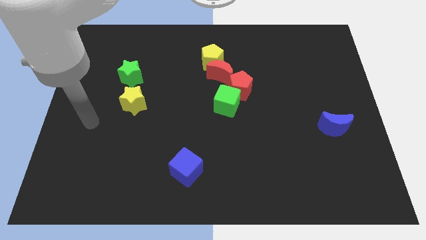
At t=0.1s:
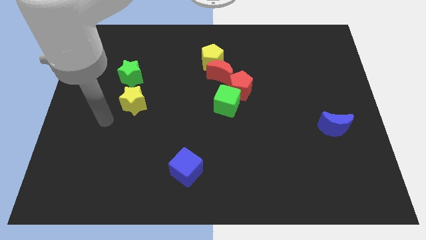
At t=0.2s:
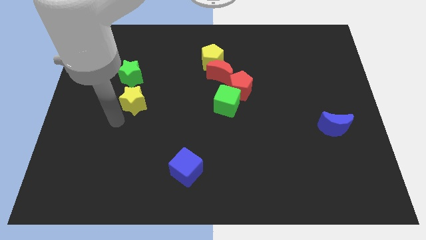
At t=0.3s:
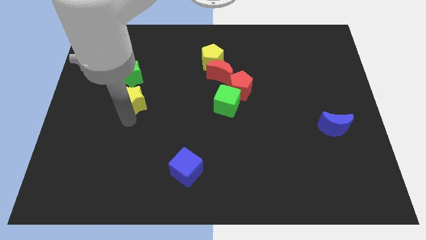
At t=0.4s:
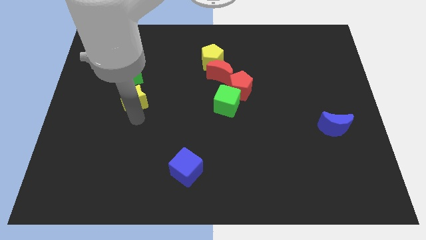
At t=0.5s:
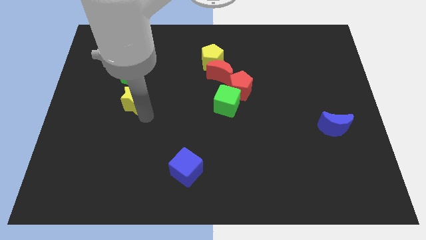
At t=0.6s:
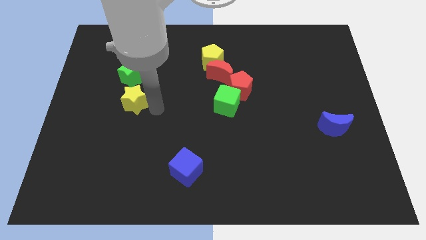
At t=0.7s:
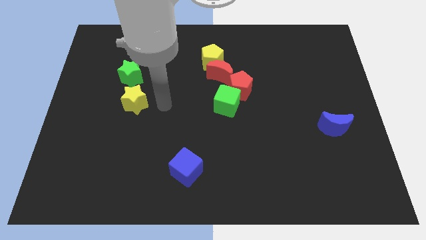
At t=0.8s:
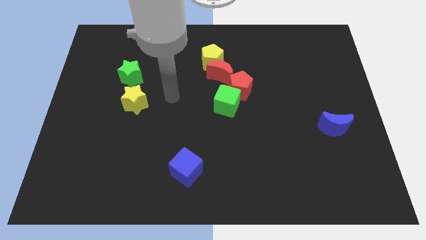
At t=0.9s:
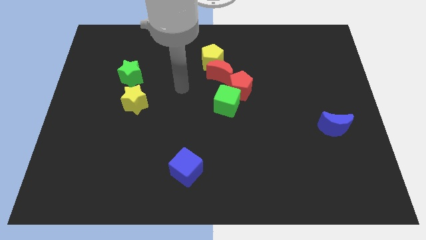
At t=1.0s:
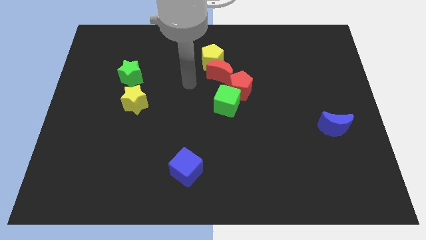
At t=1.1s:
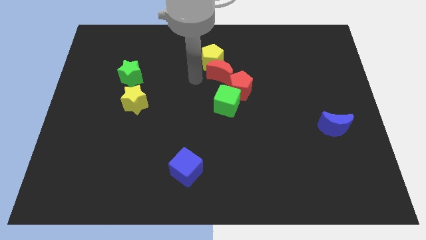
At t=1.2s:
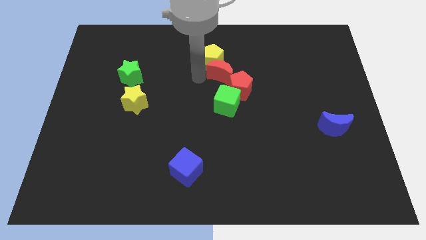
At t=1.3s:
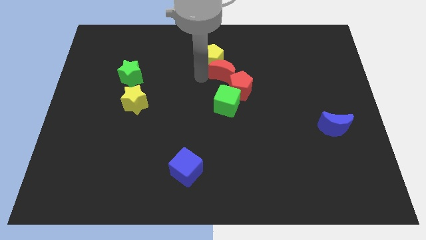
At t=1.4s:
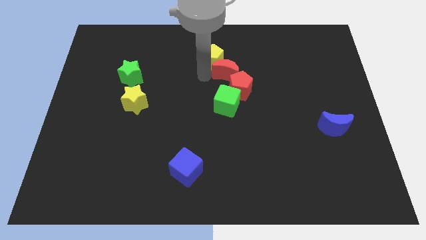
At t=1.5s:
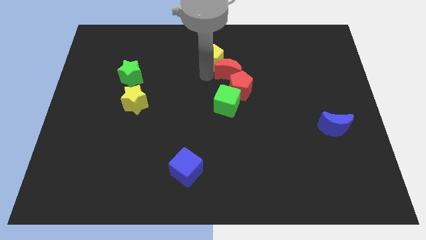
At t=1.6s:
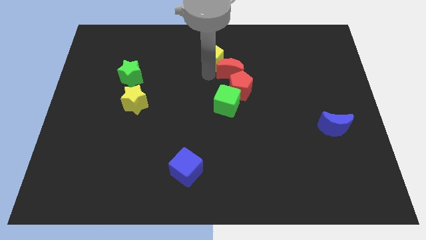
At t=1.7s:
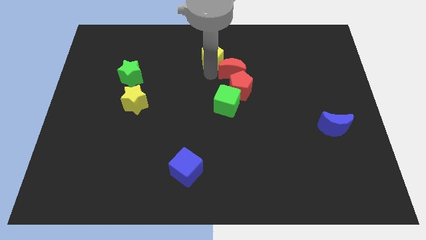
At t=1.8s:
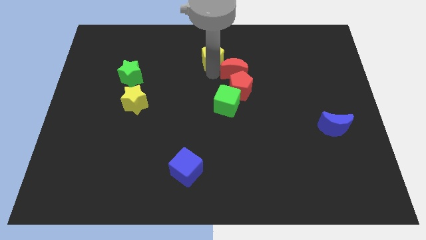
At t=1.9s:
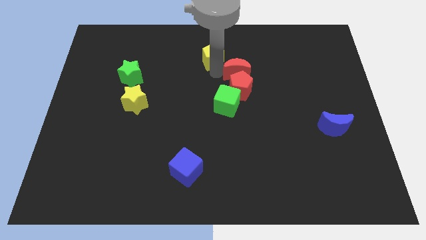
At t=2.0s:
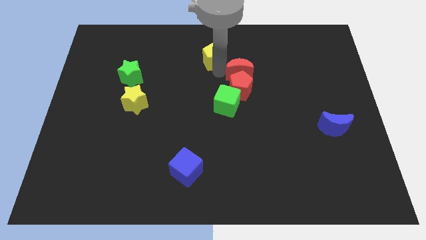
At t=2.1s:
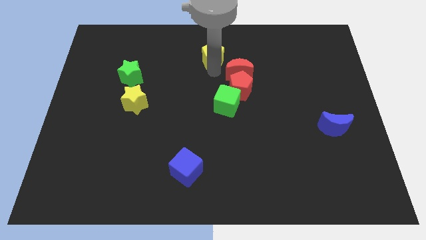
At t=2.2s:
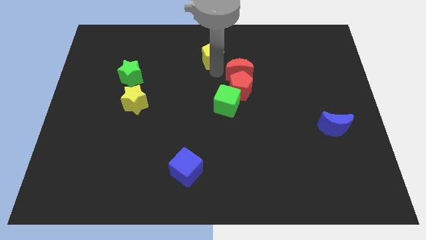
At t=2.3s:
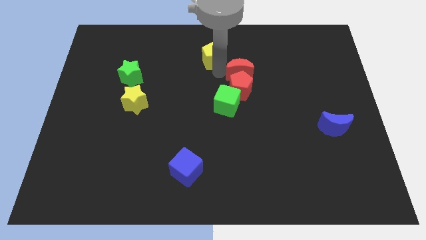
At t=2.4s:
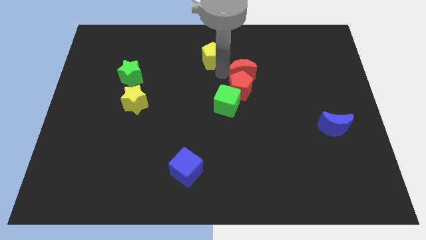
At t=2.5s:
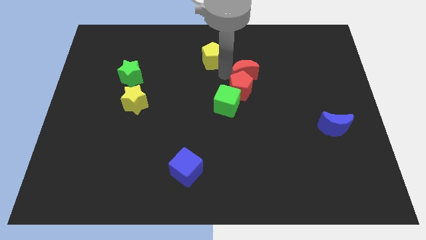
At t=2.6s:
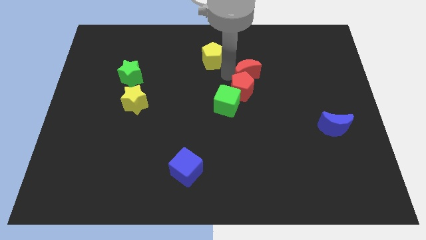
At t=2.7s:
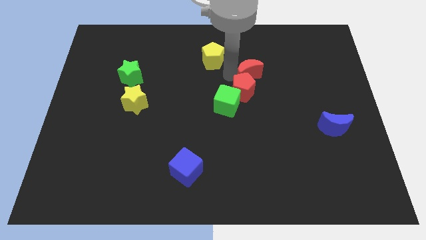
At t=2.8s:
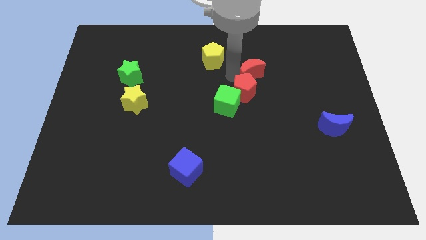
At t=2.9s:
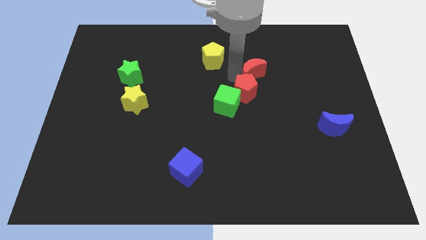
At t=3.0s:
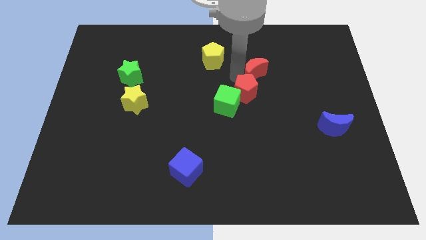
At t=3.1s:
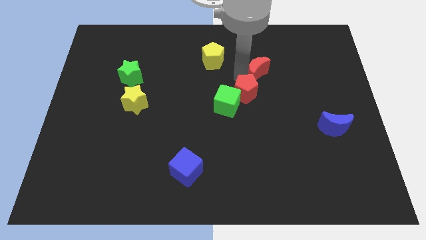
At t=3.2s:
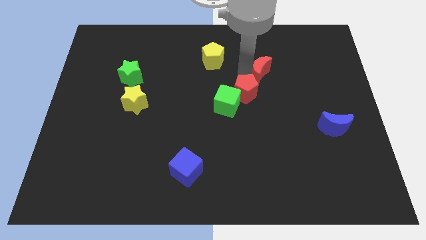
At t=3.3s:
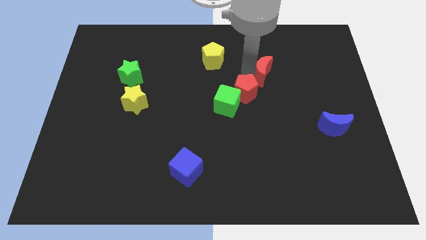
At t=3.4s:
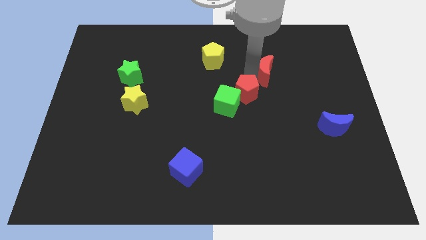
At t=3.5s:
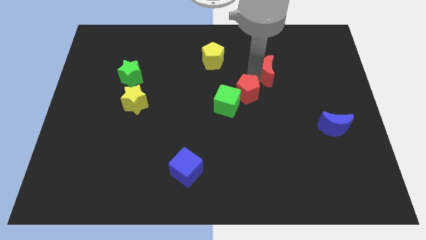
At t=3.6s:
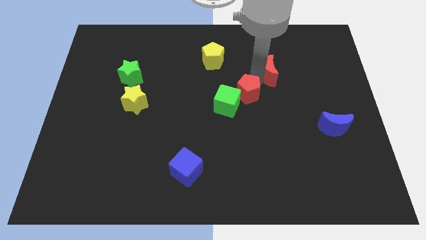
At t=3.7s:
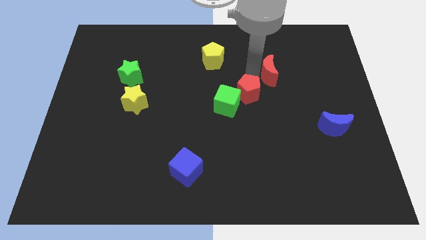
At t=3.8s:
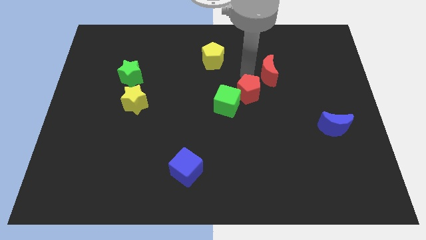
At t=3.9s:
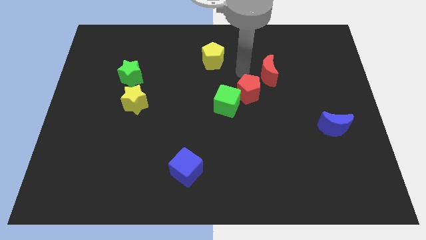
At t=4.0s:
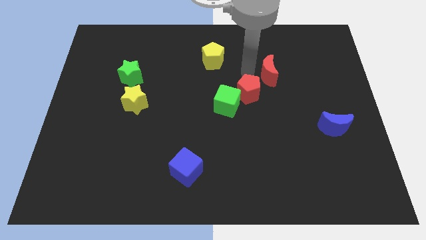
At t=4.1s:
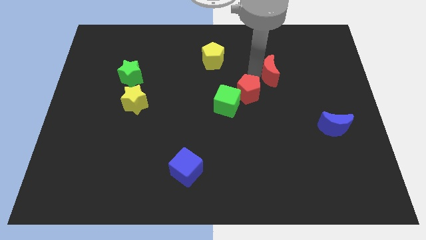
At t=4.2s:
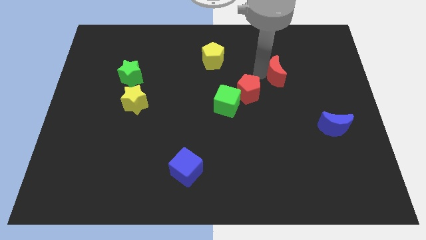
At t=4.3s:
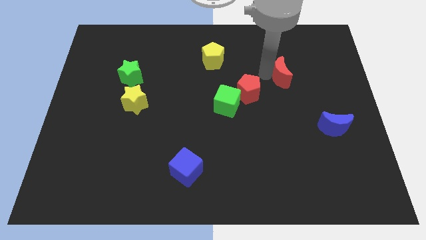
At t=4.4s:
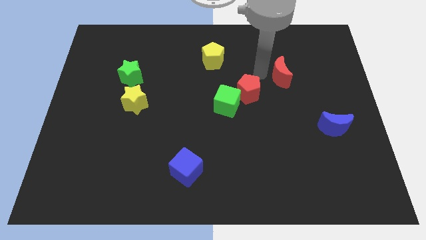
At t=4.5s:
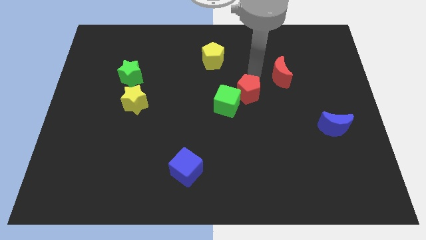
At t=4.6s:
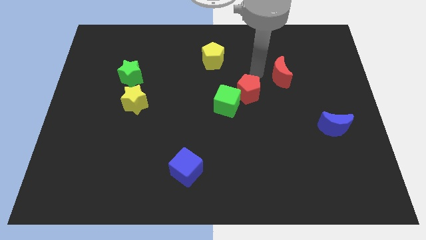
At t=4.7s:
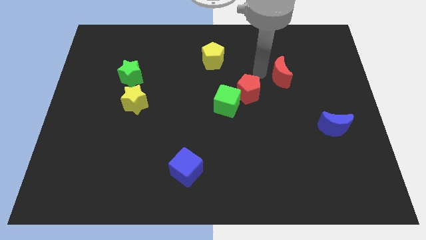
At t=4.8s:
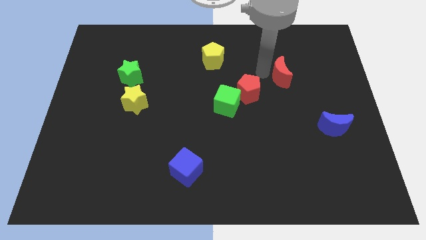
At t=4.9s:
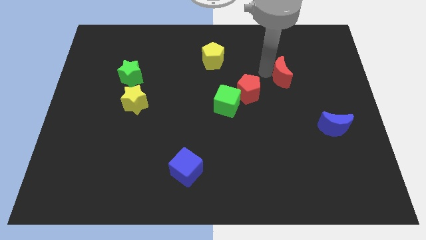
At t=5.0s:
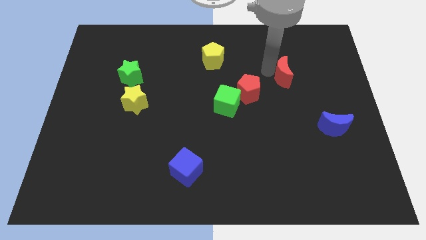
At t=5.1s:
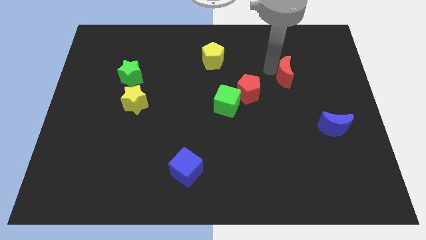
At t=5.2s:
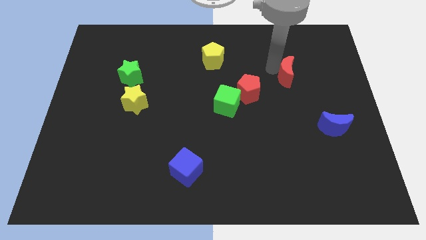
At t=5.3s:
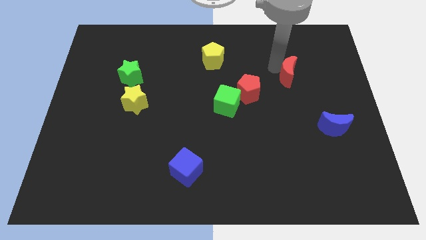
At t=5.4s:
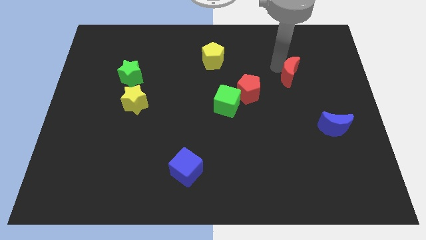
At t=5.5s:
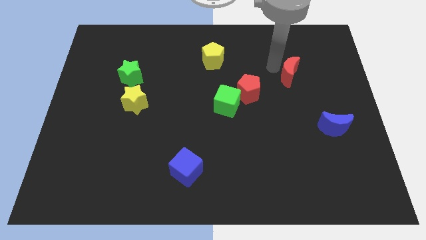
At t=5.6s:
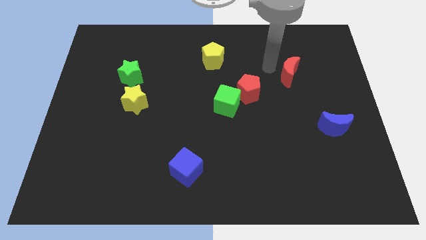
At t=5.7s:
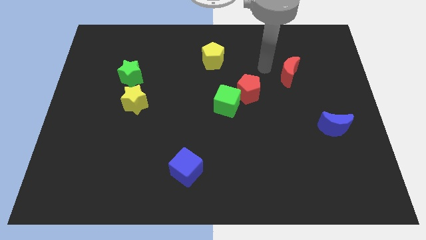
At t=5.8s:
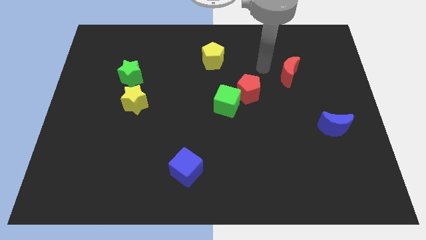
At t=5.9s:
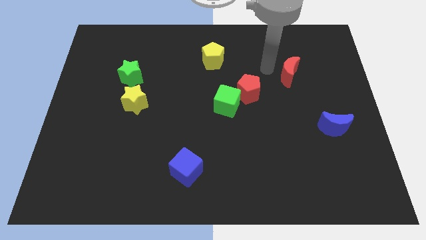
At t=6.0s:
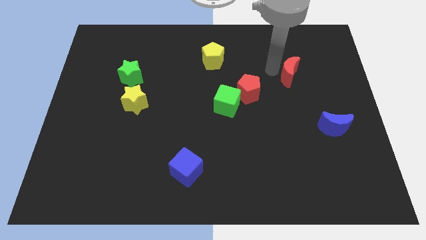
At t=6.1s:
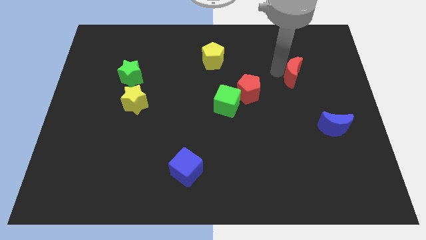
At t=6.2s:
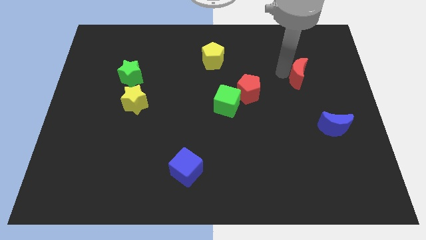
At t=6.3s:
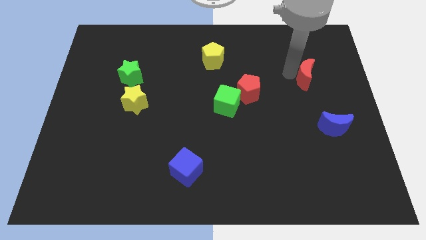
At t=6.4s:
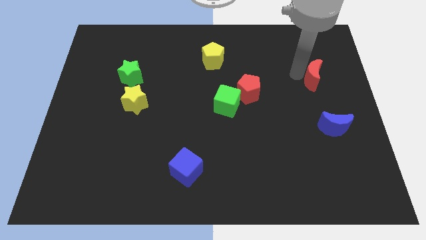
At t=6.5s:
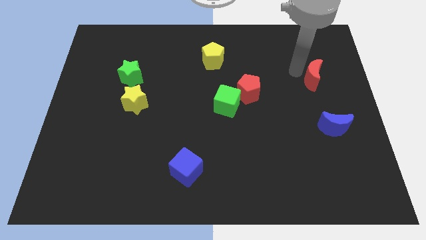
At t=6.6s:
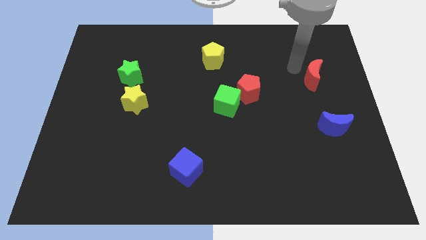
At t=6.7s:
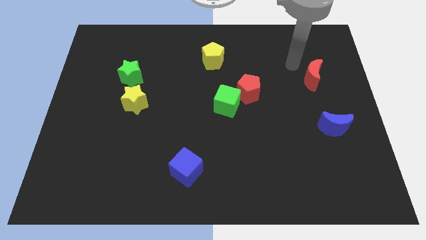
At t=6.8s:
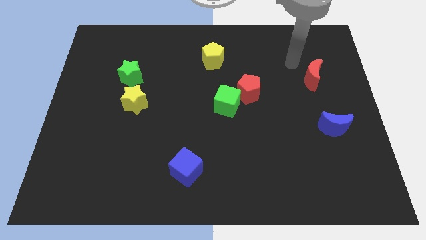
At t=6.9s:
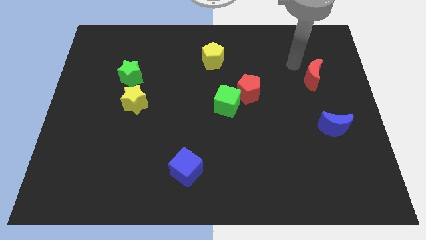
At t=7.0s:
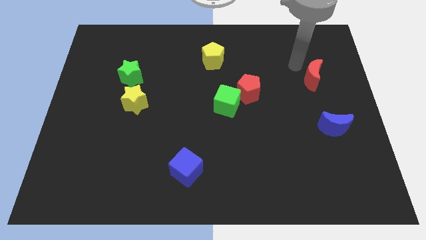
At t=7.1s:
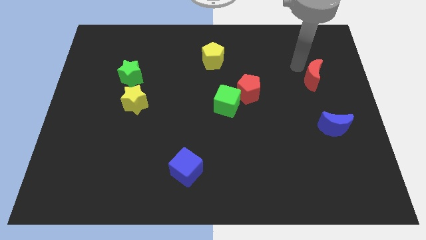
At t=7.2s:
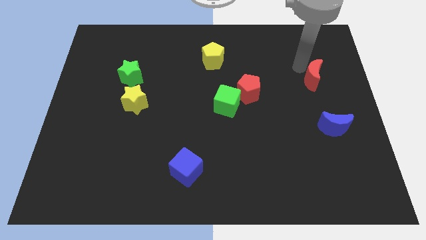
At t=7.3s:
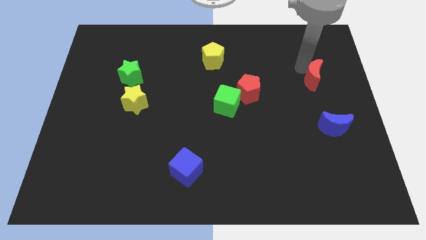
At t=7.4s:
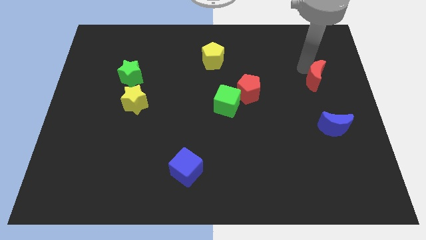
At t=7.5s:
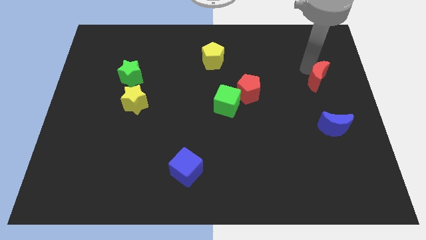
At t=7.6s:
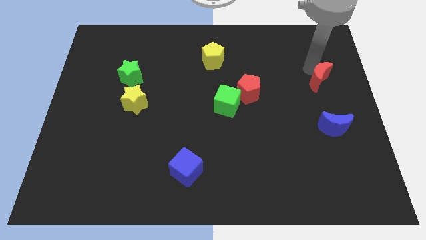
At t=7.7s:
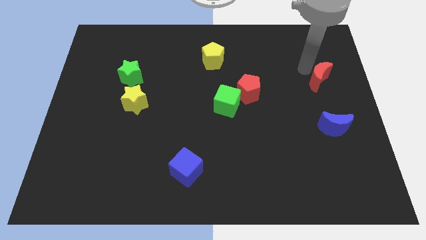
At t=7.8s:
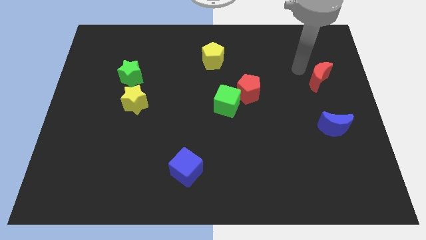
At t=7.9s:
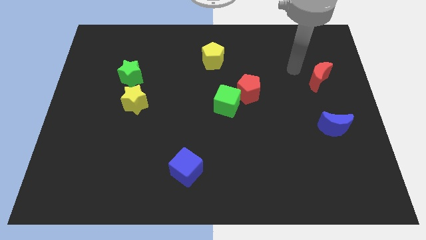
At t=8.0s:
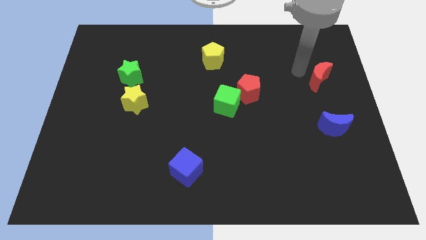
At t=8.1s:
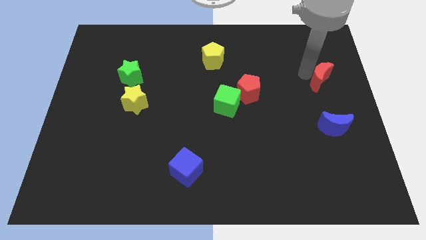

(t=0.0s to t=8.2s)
slide the red moon to the right side
